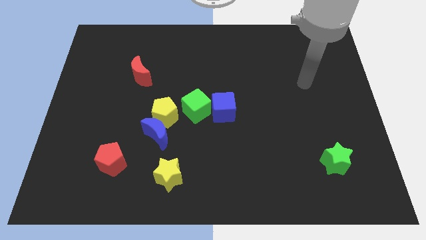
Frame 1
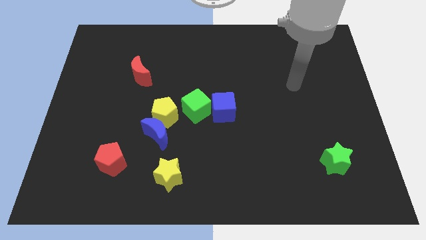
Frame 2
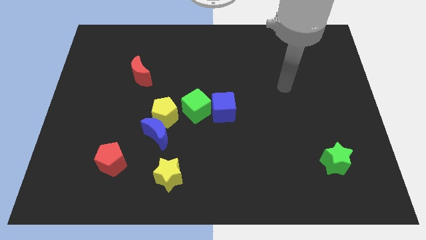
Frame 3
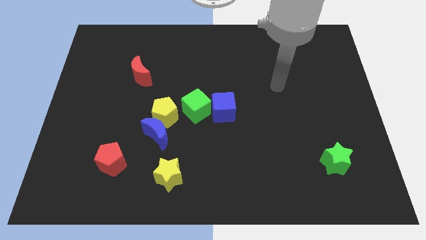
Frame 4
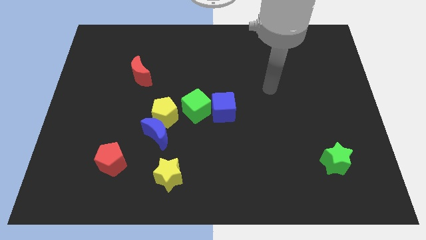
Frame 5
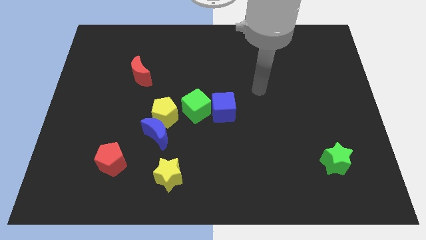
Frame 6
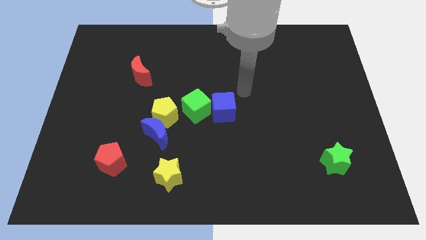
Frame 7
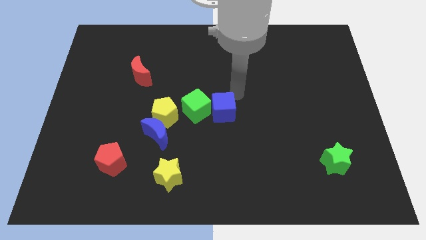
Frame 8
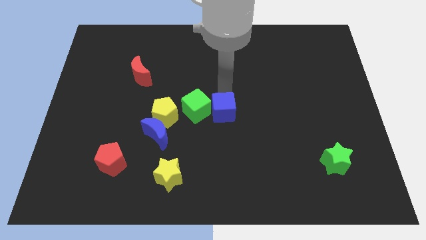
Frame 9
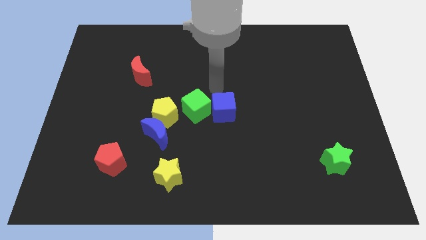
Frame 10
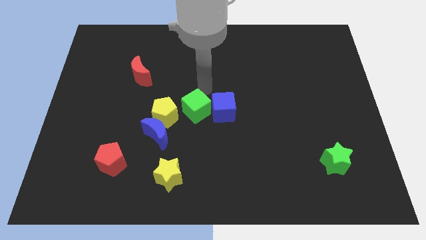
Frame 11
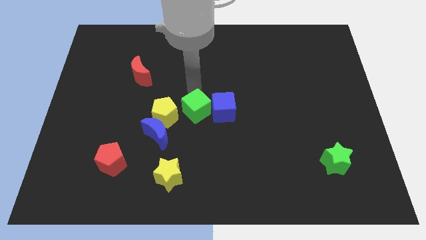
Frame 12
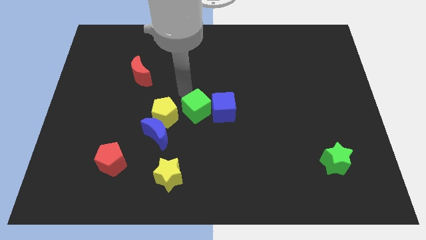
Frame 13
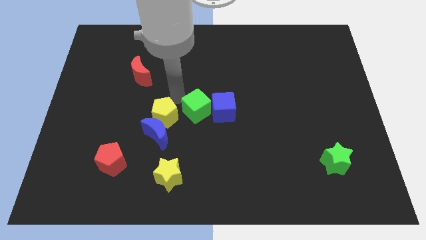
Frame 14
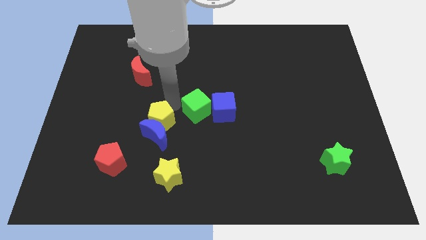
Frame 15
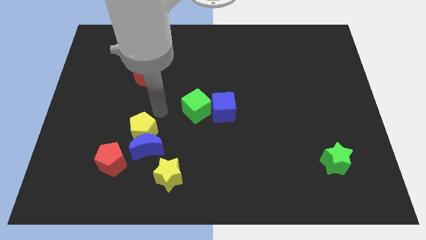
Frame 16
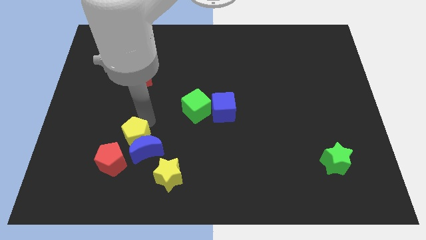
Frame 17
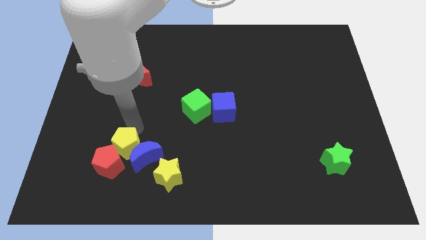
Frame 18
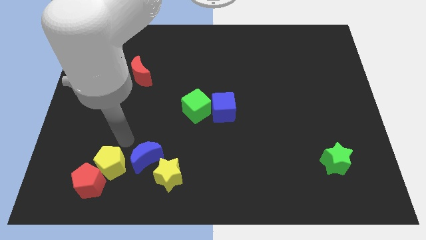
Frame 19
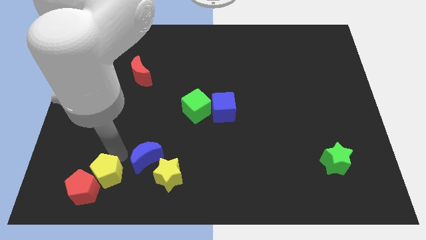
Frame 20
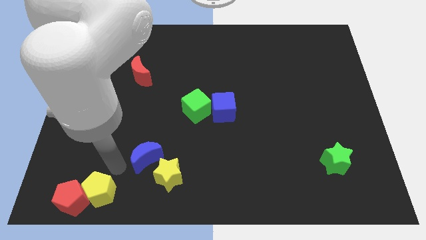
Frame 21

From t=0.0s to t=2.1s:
pull the blue moon apart from the yellow pentagon

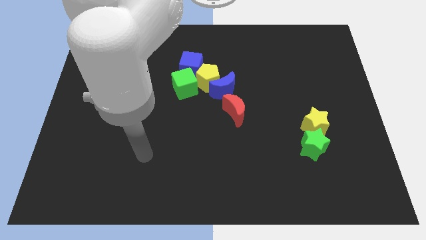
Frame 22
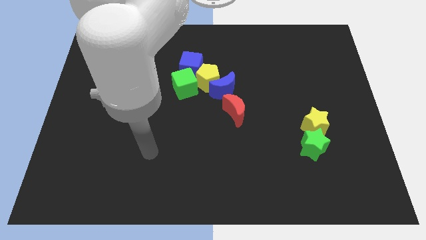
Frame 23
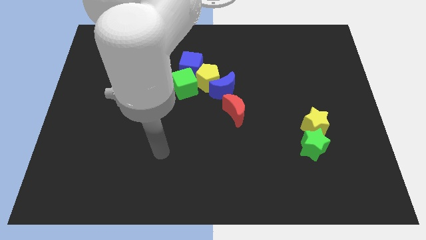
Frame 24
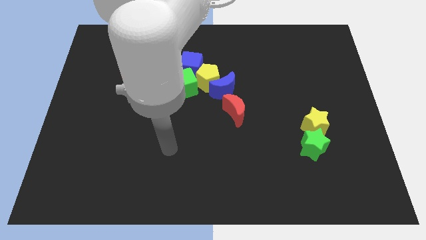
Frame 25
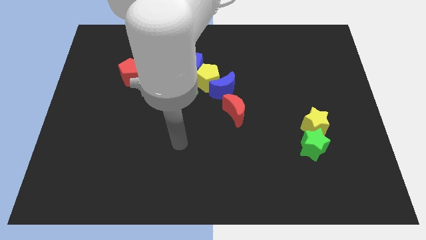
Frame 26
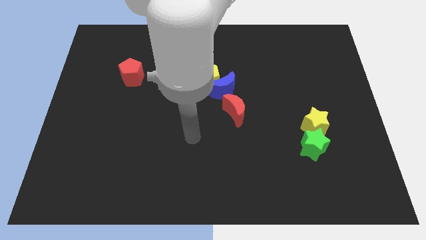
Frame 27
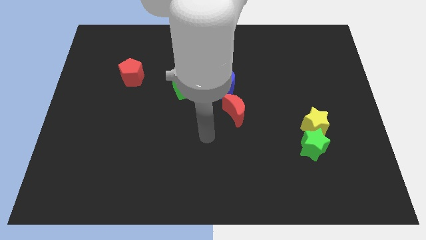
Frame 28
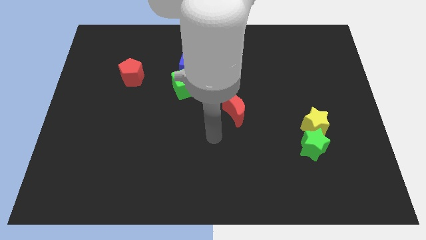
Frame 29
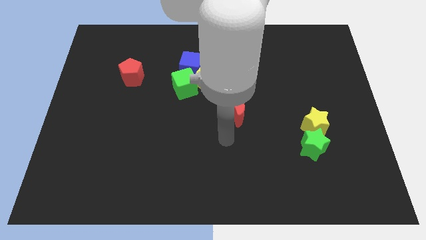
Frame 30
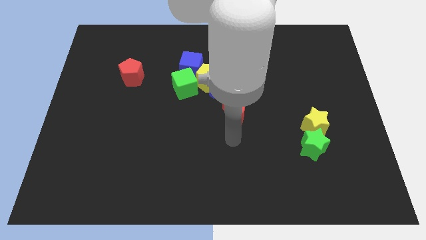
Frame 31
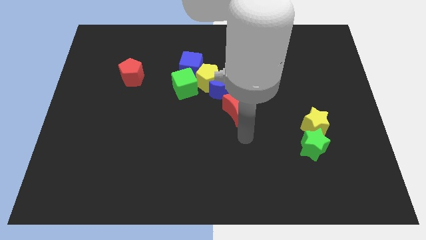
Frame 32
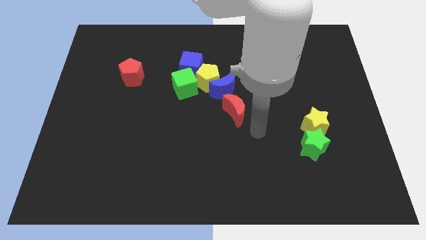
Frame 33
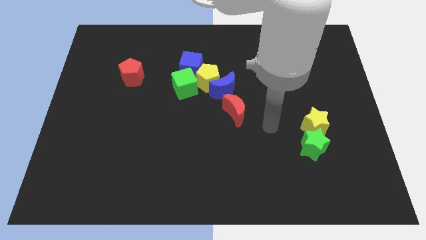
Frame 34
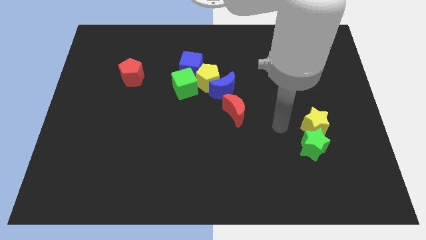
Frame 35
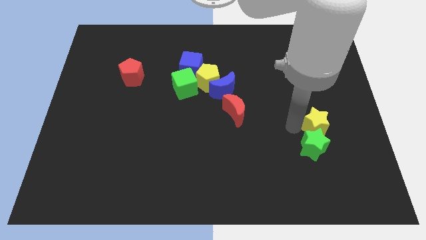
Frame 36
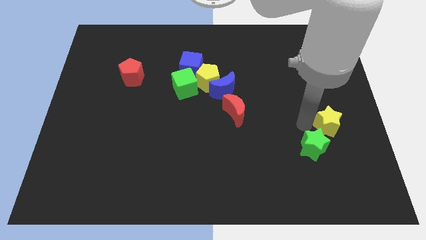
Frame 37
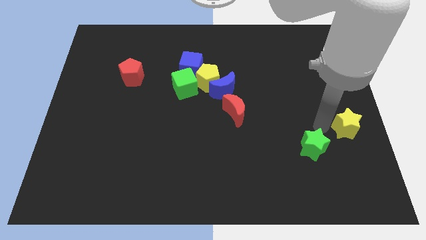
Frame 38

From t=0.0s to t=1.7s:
pull the green star apart from the yellow star

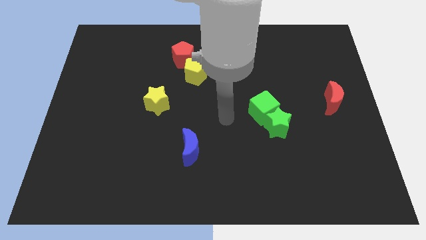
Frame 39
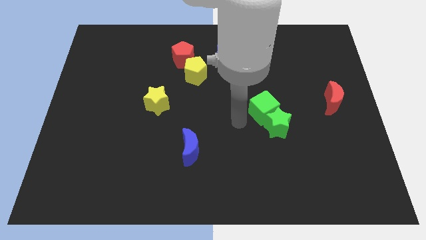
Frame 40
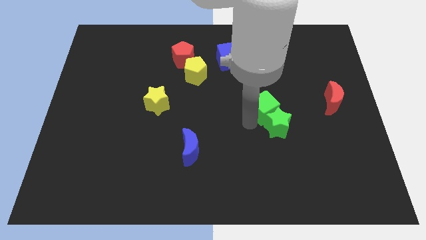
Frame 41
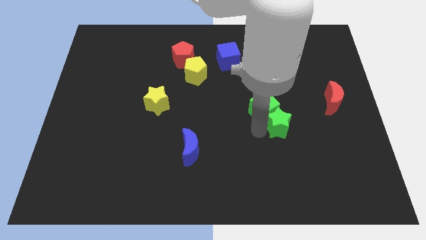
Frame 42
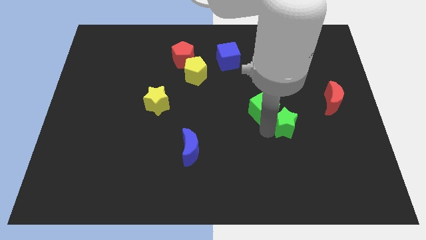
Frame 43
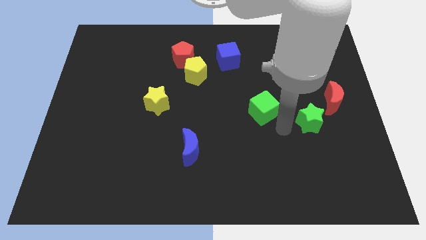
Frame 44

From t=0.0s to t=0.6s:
pull the green cube apart from the green star

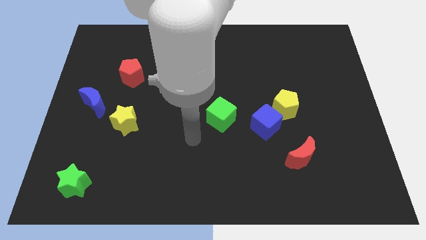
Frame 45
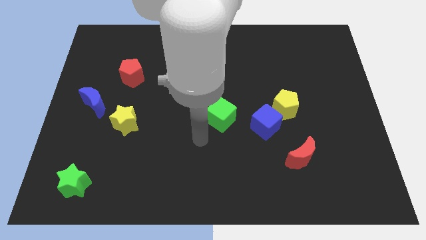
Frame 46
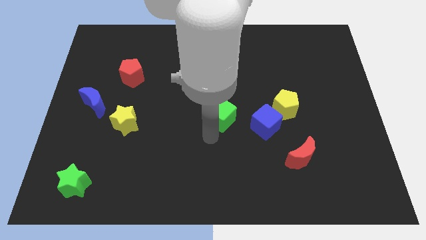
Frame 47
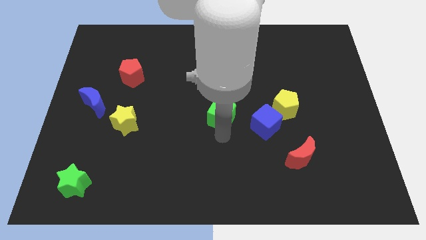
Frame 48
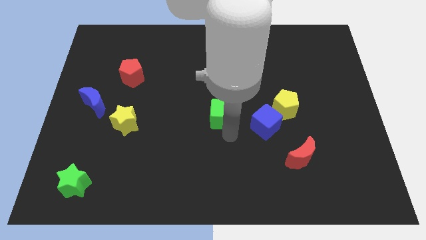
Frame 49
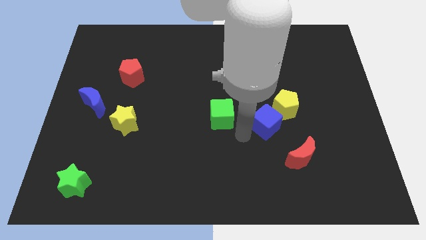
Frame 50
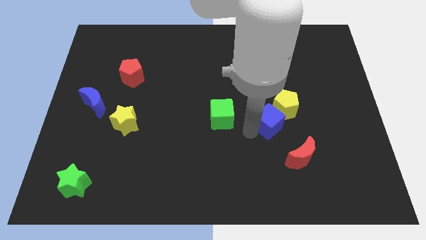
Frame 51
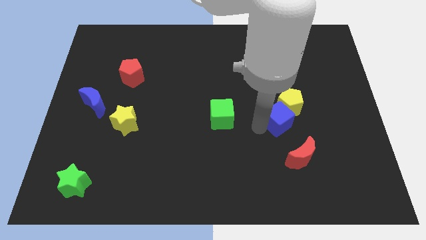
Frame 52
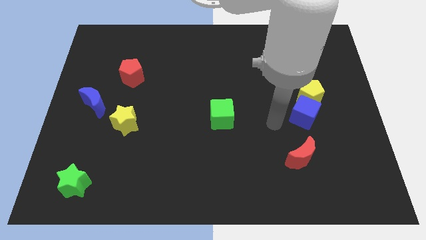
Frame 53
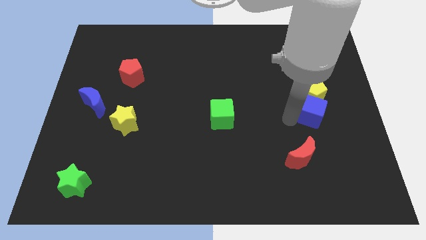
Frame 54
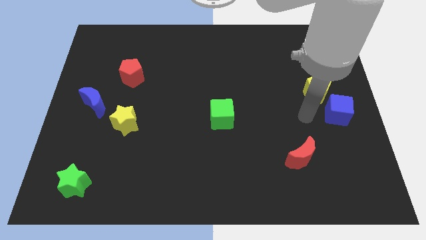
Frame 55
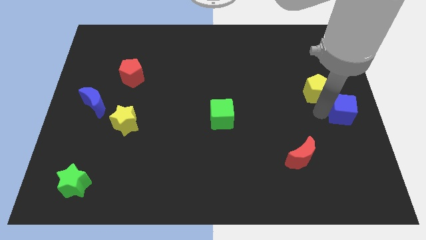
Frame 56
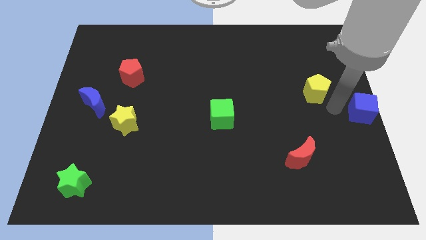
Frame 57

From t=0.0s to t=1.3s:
move the yellow pentagon away from the blue cube

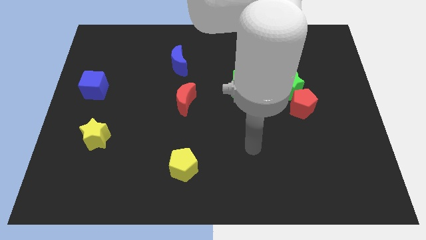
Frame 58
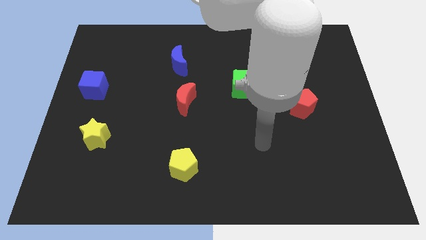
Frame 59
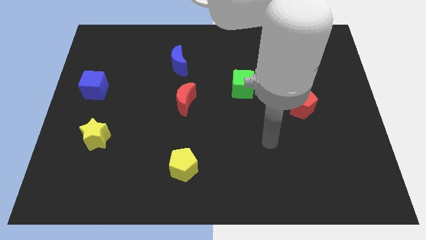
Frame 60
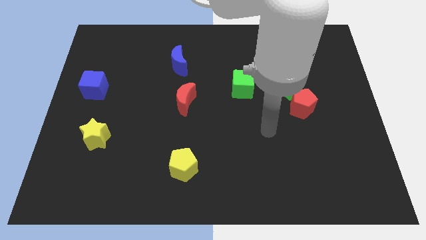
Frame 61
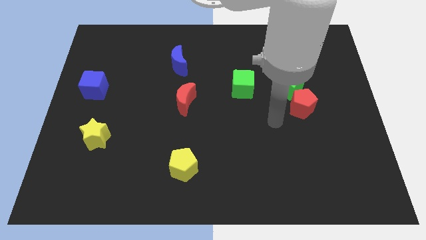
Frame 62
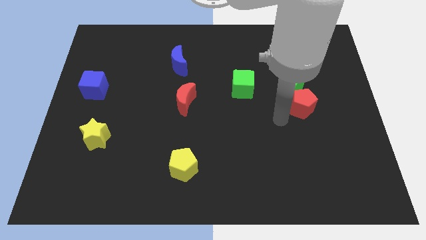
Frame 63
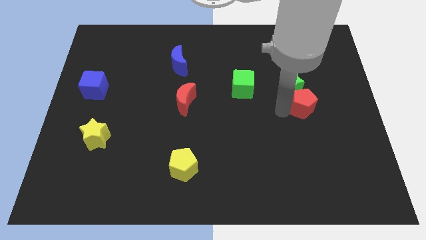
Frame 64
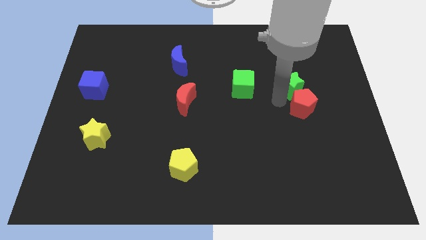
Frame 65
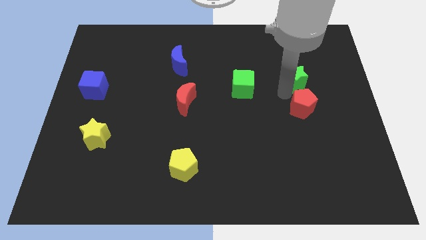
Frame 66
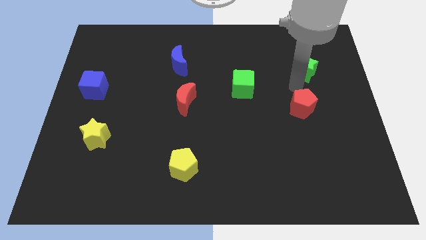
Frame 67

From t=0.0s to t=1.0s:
separate the red pentagon from the green star

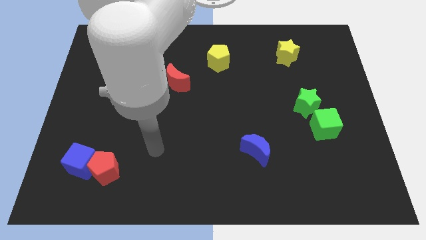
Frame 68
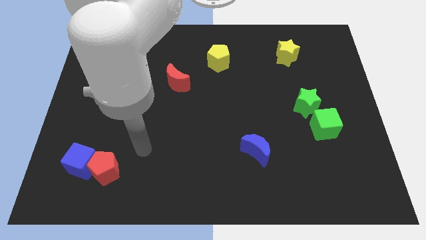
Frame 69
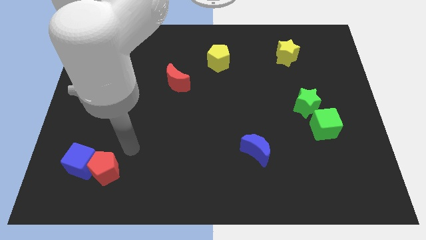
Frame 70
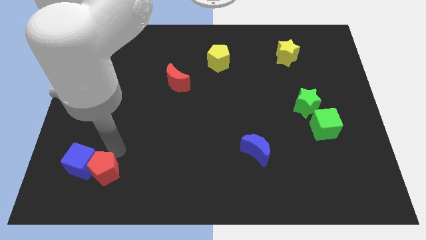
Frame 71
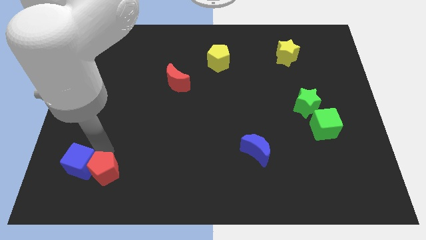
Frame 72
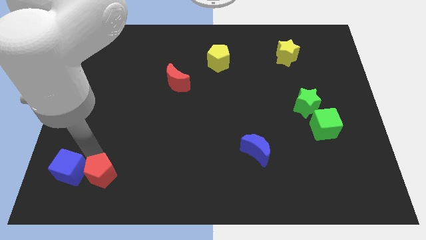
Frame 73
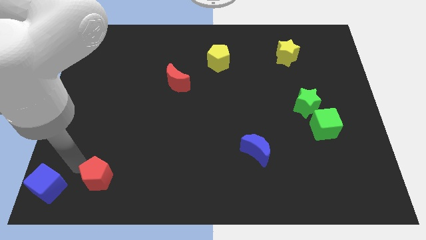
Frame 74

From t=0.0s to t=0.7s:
separate the red pentagon from the blue cube

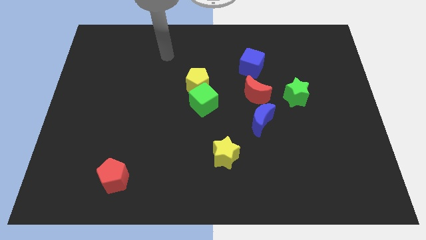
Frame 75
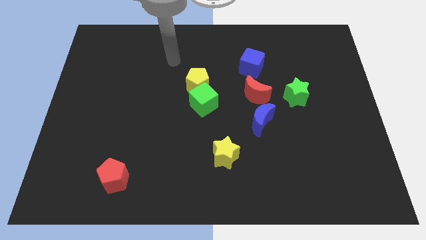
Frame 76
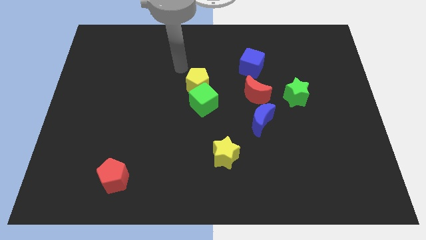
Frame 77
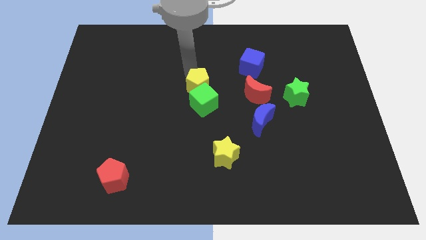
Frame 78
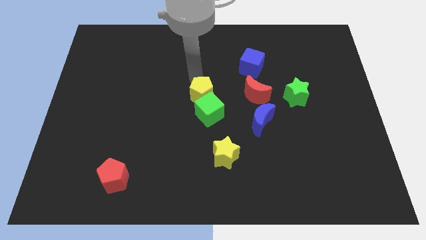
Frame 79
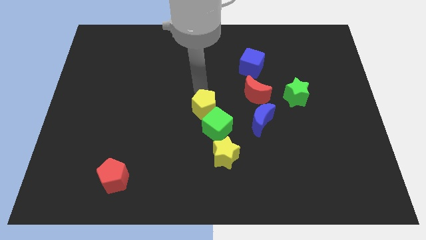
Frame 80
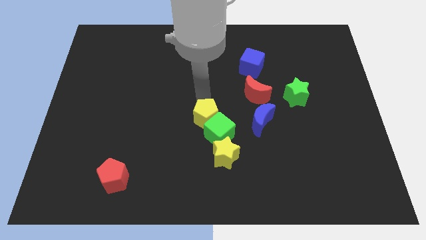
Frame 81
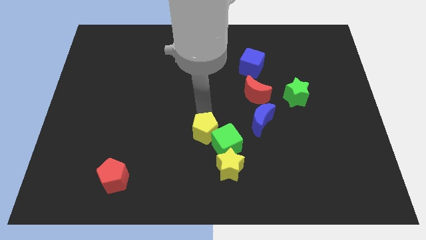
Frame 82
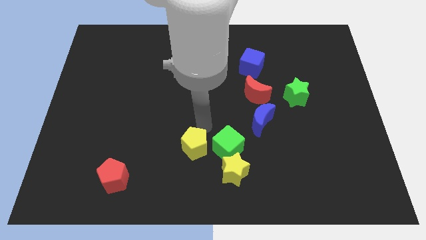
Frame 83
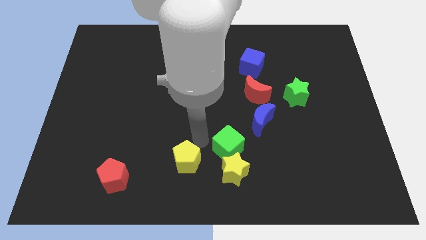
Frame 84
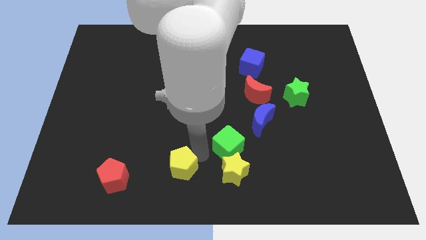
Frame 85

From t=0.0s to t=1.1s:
separate the green cube from the yellow pentagon

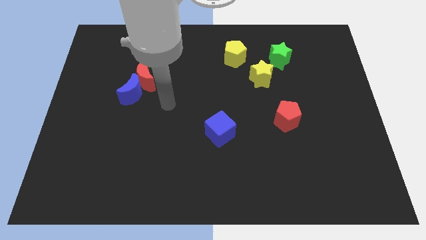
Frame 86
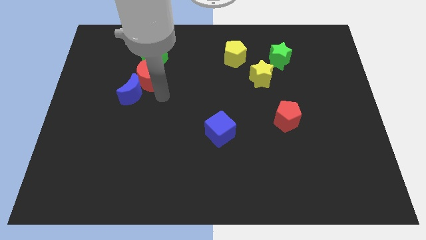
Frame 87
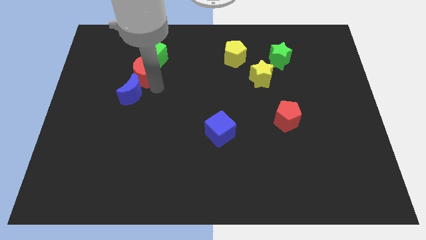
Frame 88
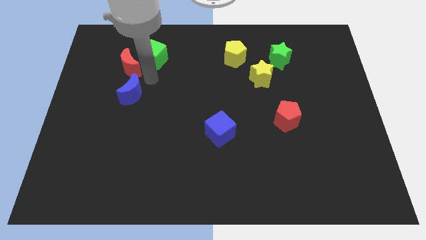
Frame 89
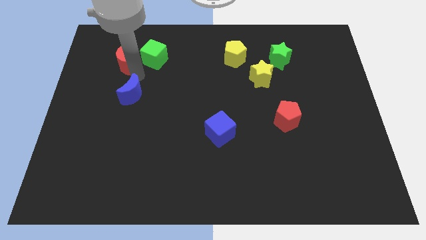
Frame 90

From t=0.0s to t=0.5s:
separate the blue moon from the red moon

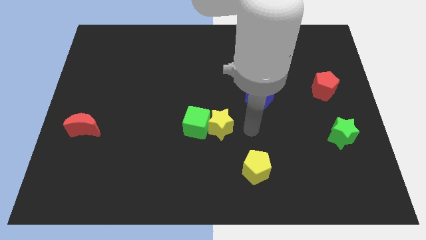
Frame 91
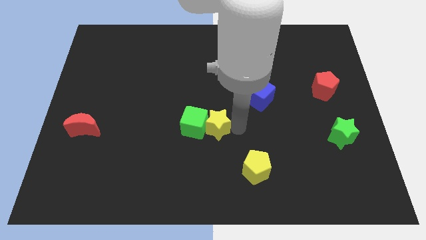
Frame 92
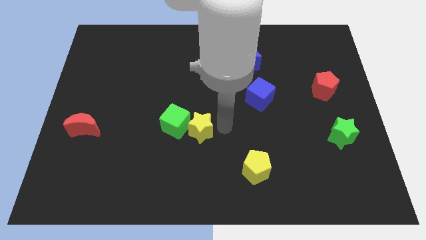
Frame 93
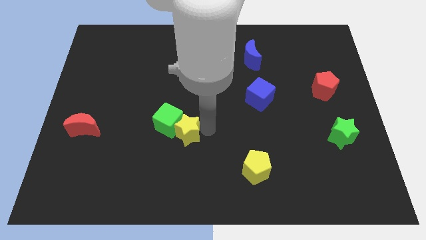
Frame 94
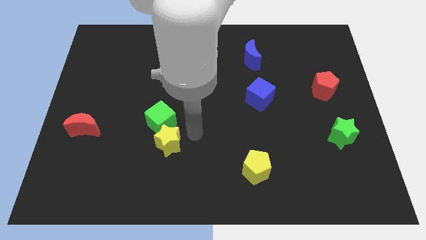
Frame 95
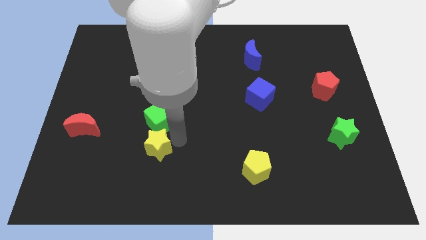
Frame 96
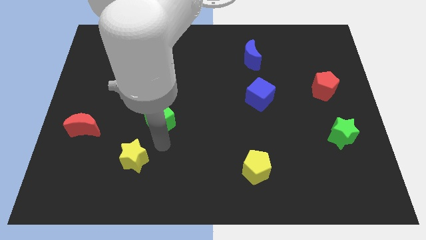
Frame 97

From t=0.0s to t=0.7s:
pull the green cube apart from the yellow star
